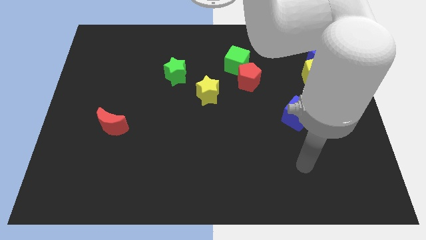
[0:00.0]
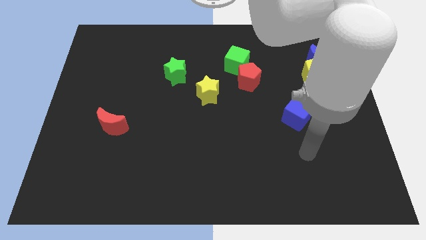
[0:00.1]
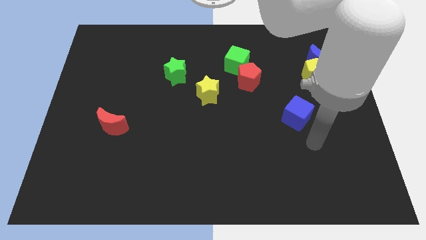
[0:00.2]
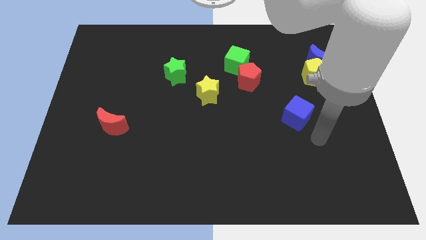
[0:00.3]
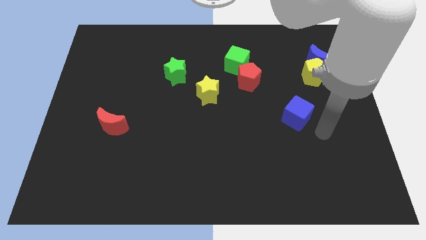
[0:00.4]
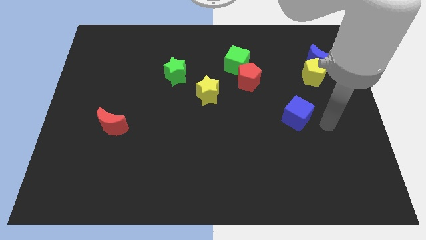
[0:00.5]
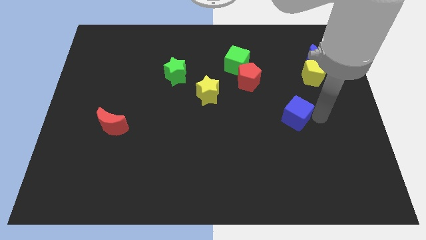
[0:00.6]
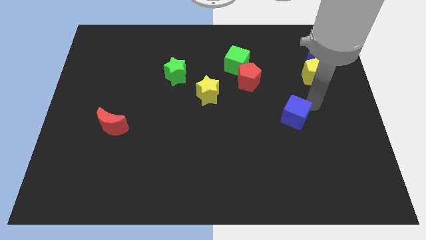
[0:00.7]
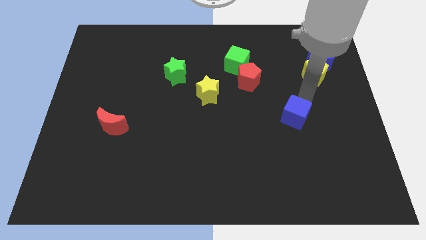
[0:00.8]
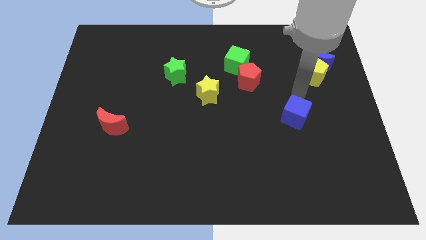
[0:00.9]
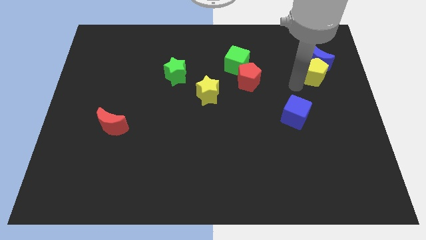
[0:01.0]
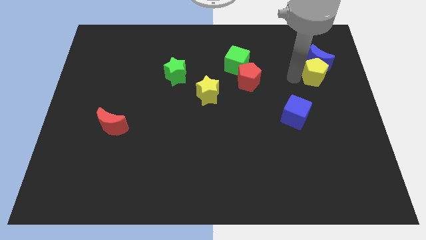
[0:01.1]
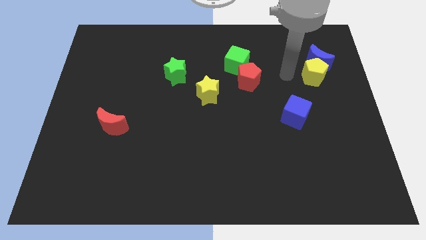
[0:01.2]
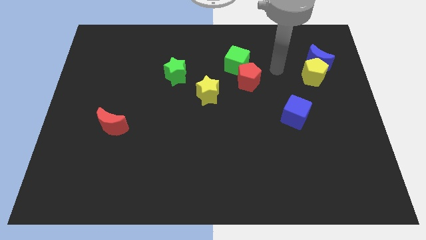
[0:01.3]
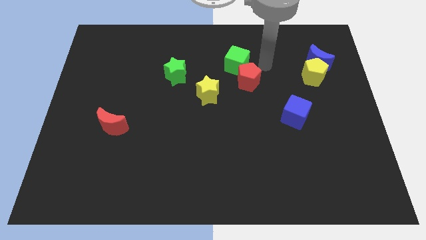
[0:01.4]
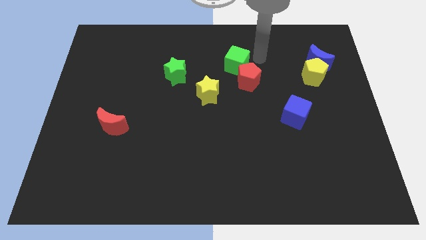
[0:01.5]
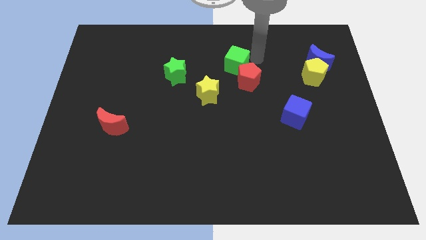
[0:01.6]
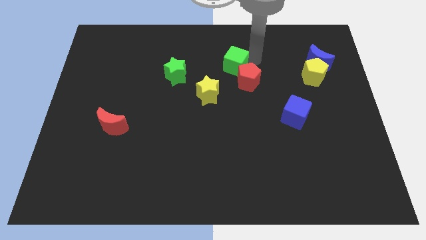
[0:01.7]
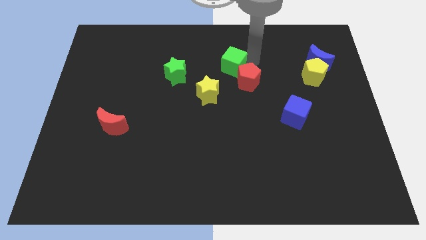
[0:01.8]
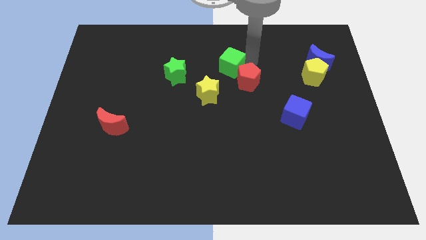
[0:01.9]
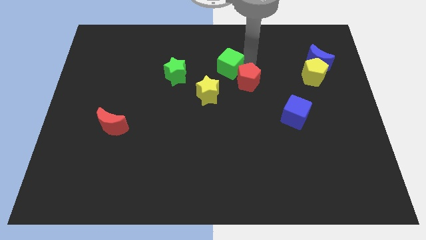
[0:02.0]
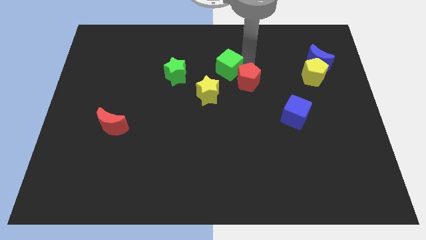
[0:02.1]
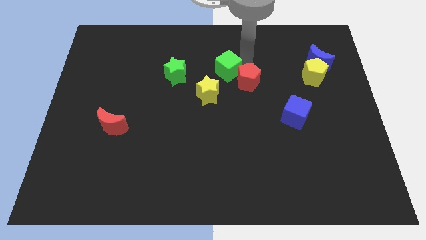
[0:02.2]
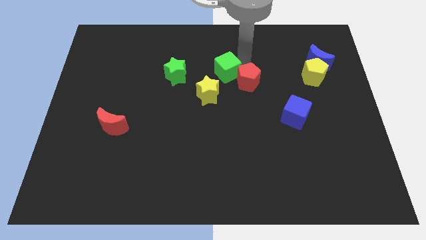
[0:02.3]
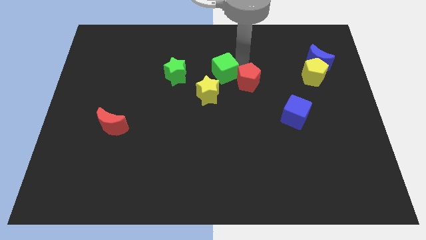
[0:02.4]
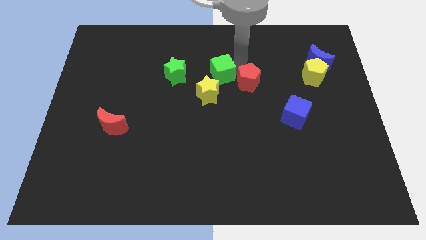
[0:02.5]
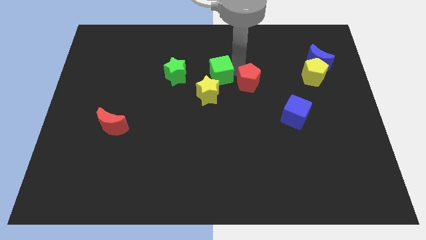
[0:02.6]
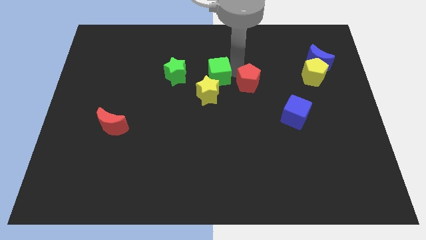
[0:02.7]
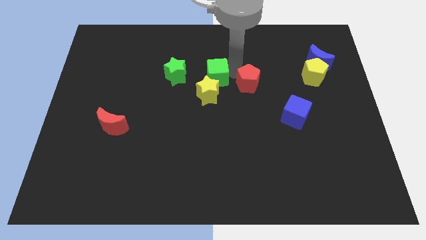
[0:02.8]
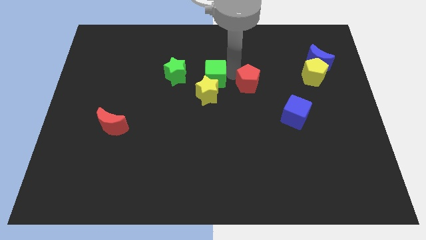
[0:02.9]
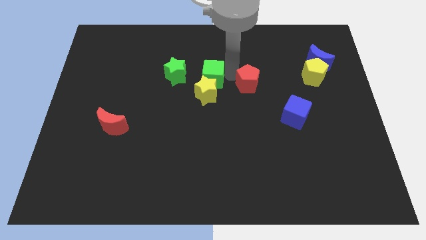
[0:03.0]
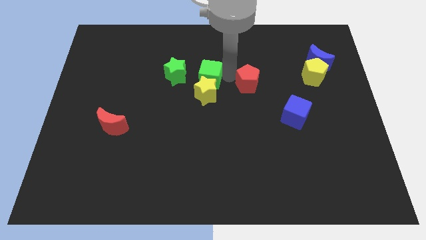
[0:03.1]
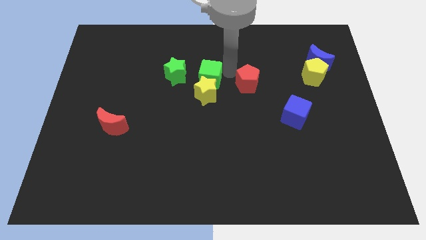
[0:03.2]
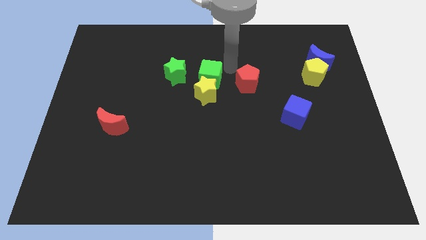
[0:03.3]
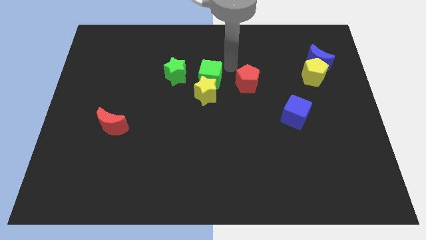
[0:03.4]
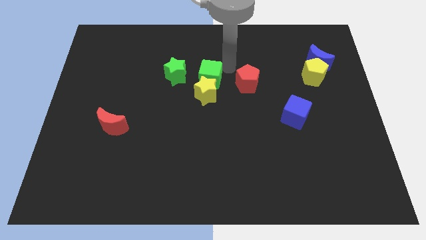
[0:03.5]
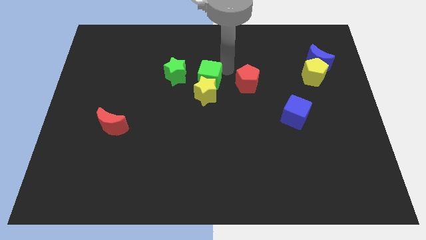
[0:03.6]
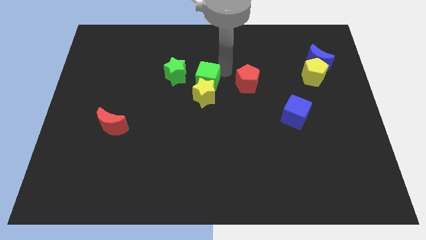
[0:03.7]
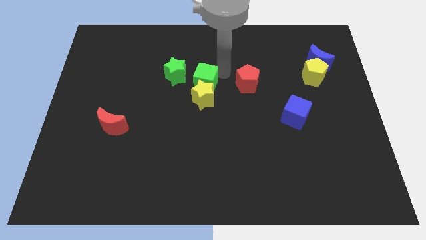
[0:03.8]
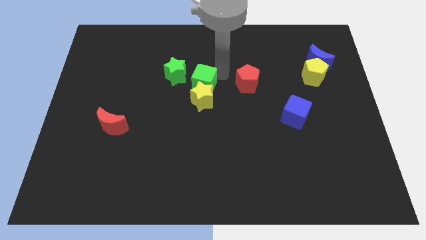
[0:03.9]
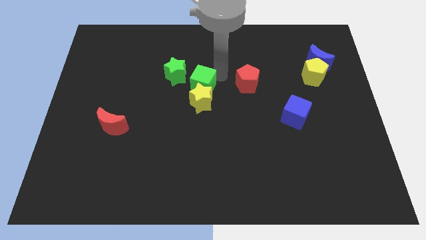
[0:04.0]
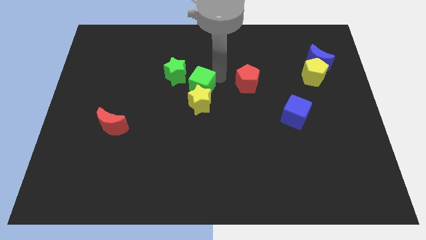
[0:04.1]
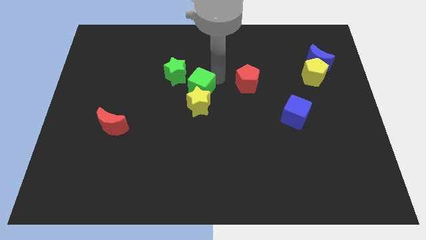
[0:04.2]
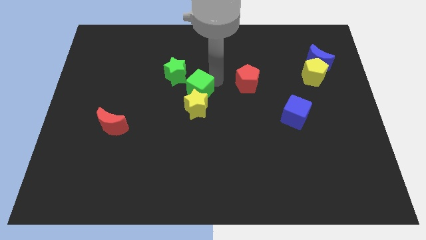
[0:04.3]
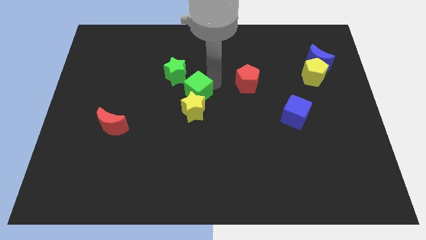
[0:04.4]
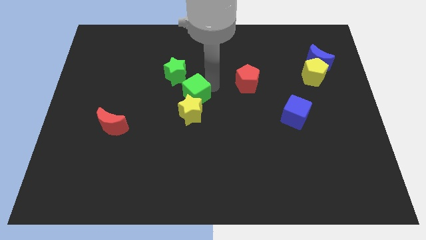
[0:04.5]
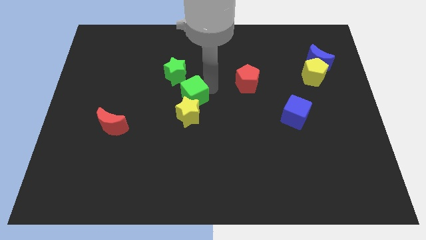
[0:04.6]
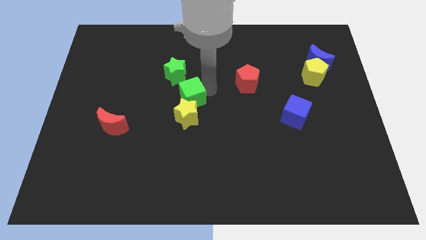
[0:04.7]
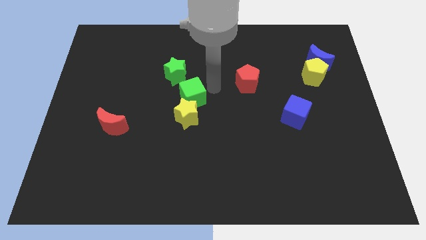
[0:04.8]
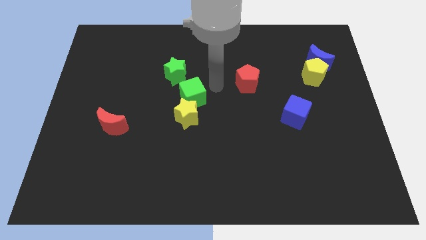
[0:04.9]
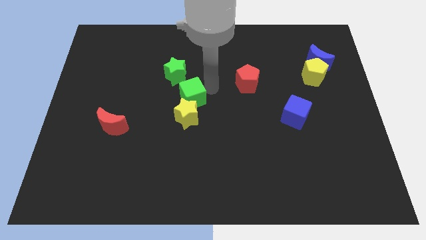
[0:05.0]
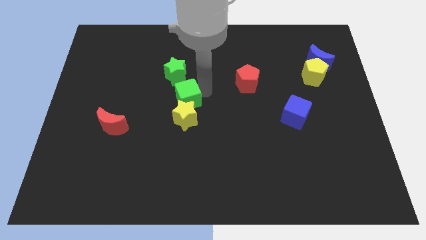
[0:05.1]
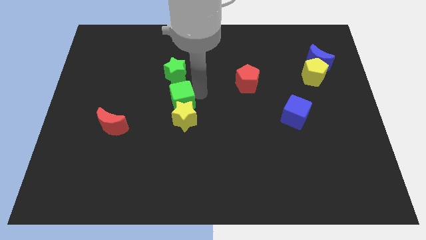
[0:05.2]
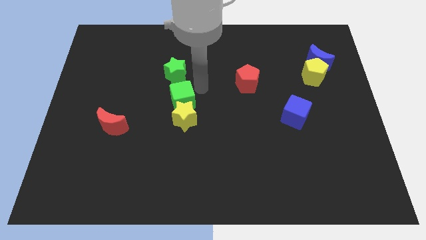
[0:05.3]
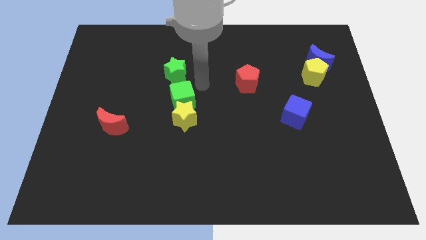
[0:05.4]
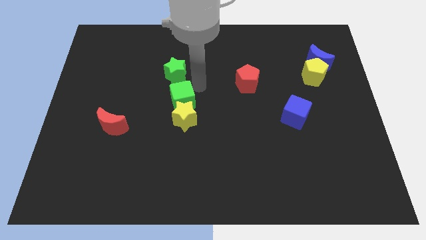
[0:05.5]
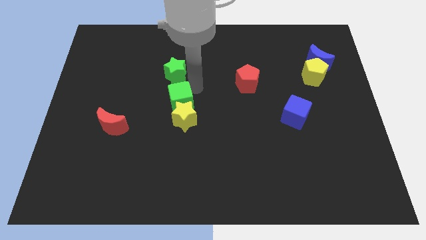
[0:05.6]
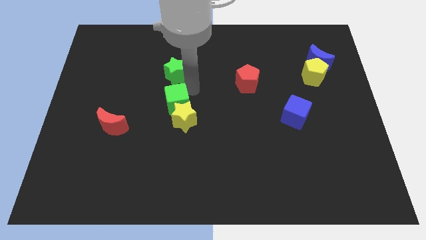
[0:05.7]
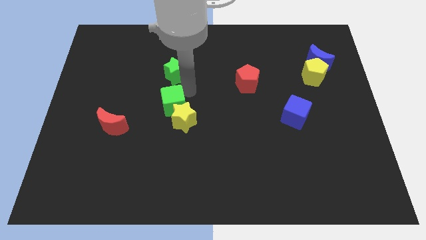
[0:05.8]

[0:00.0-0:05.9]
slide the green cube downwards and left diagonally

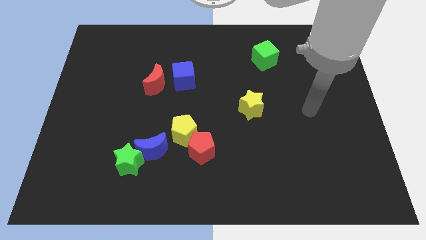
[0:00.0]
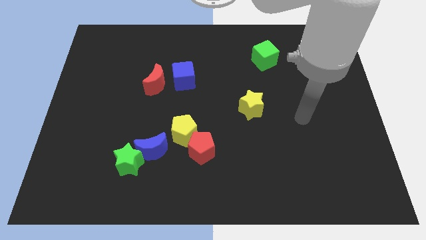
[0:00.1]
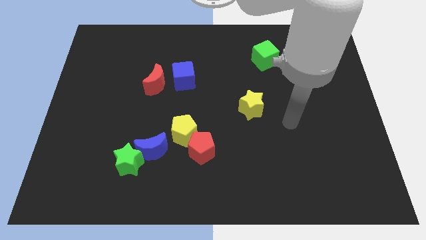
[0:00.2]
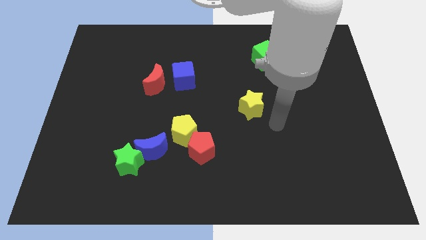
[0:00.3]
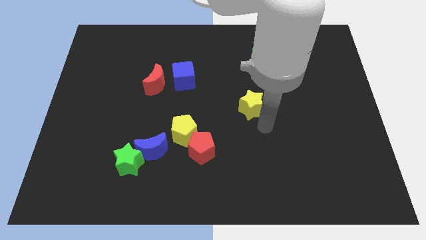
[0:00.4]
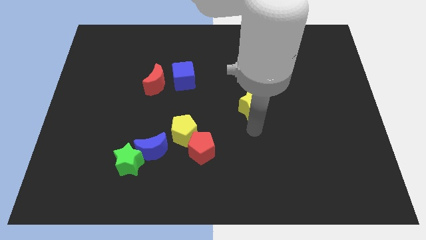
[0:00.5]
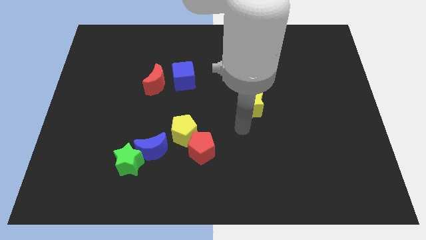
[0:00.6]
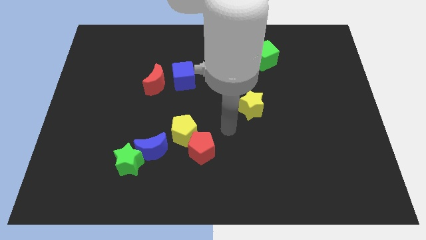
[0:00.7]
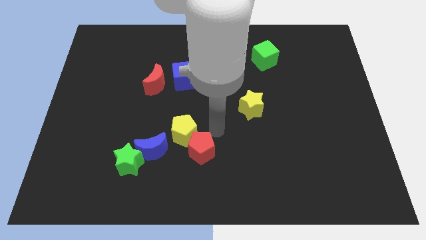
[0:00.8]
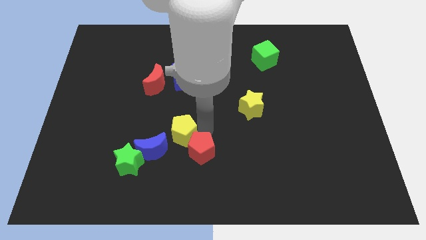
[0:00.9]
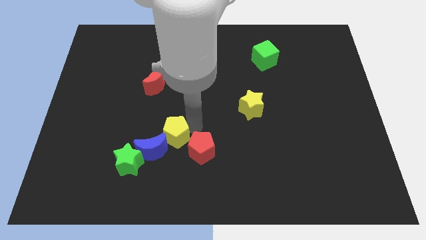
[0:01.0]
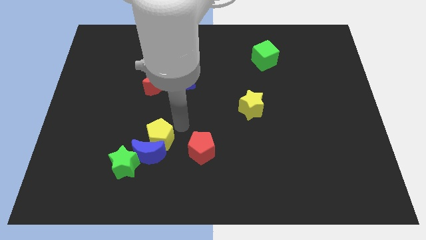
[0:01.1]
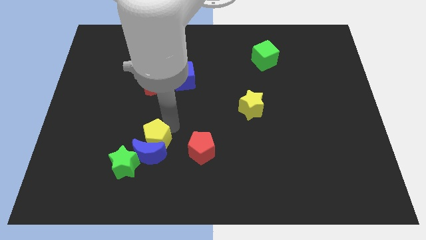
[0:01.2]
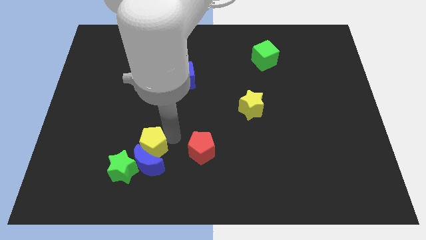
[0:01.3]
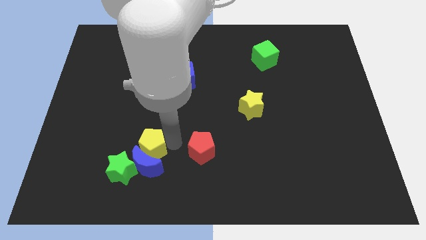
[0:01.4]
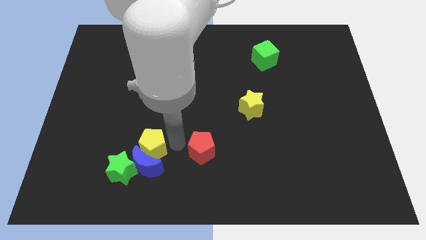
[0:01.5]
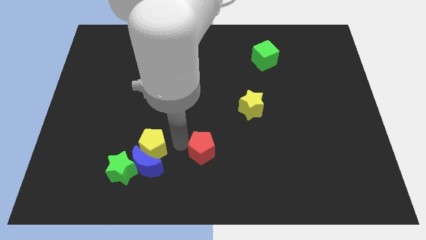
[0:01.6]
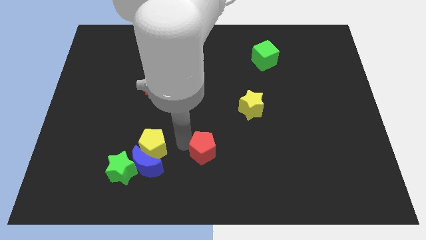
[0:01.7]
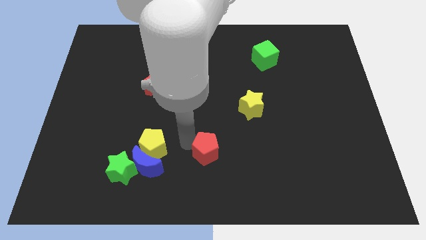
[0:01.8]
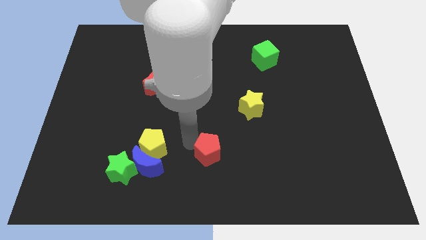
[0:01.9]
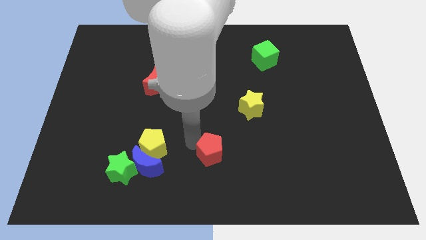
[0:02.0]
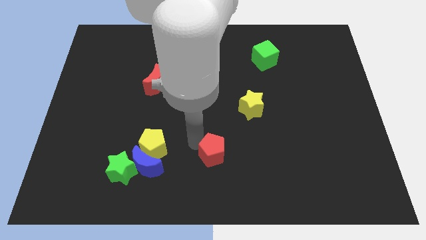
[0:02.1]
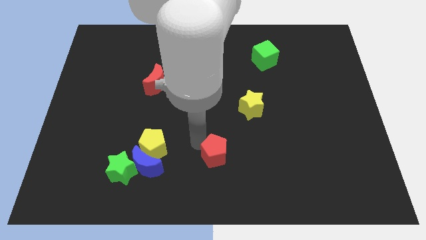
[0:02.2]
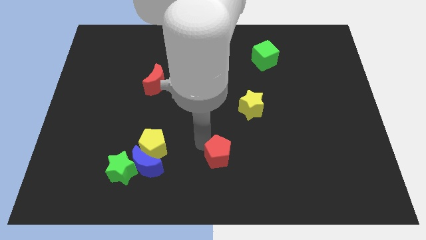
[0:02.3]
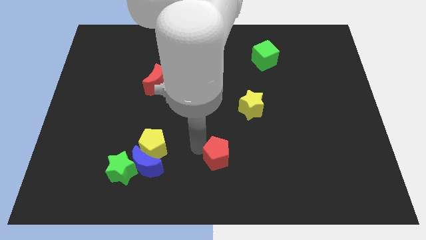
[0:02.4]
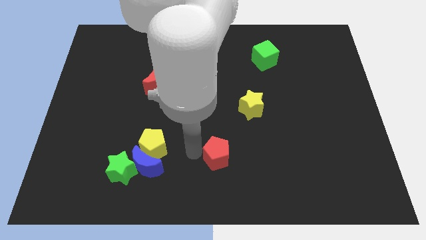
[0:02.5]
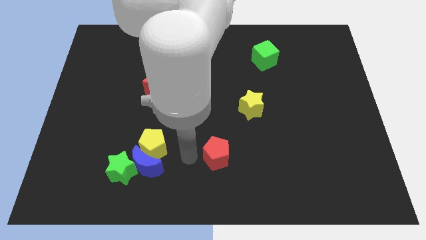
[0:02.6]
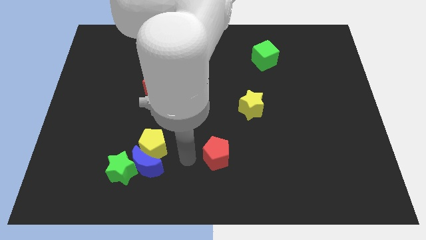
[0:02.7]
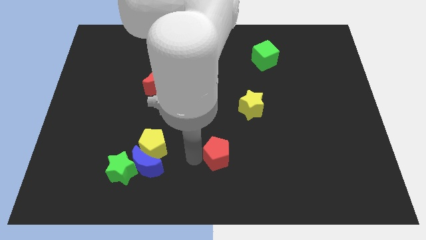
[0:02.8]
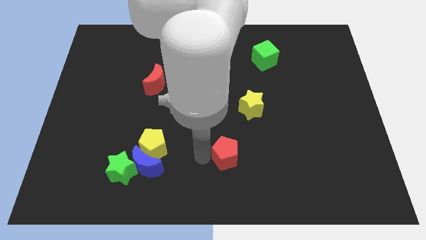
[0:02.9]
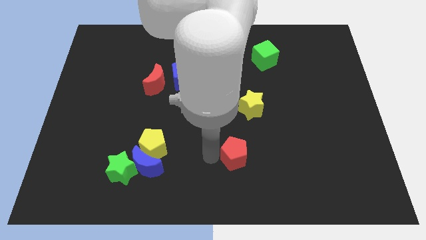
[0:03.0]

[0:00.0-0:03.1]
slightly slide the red pentagon to the right
